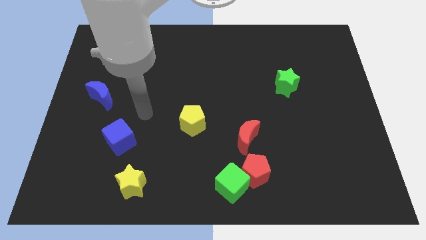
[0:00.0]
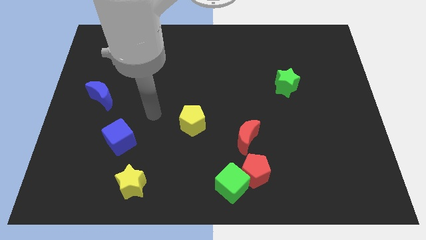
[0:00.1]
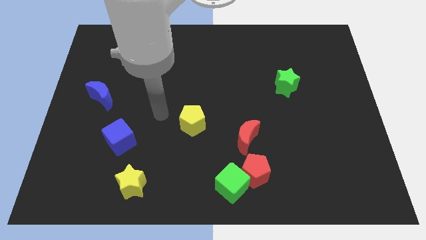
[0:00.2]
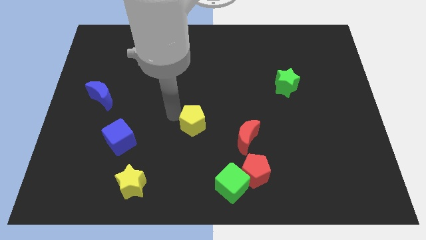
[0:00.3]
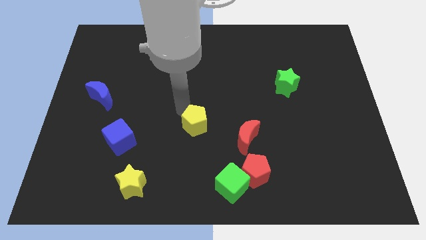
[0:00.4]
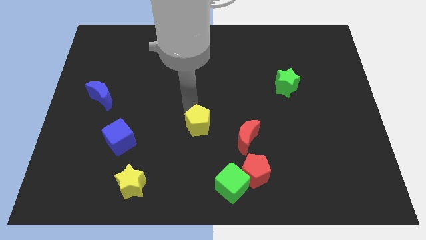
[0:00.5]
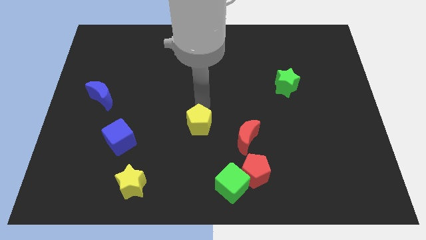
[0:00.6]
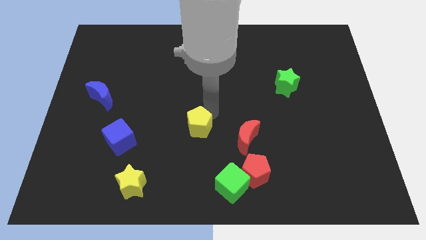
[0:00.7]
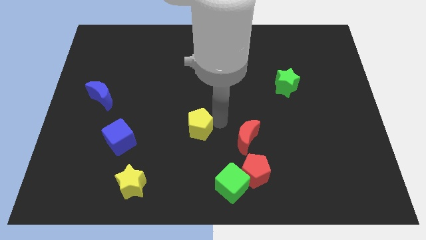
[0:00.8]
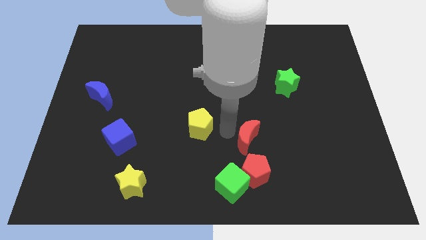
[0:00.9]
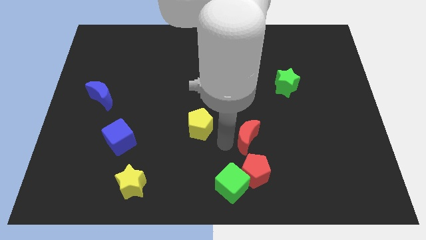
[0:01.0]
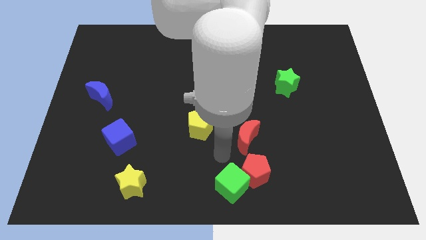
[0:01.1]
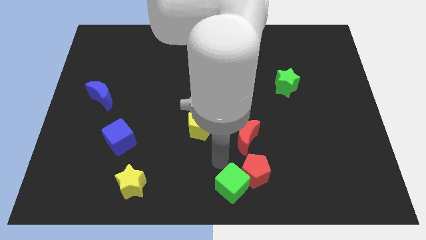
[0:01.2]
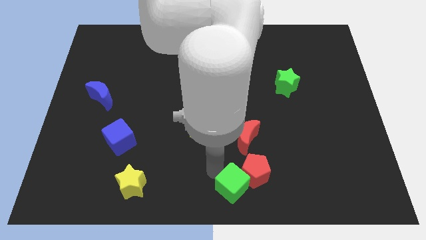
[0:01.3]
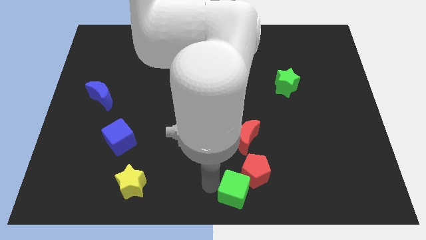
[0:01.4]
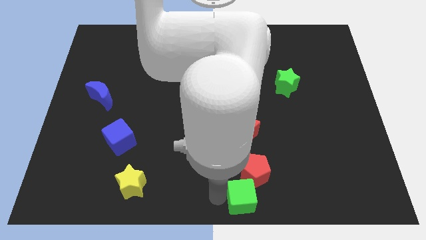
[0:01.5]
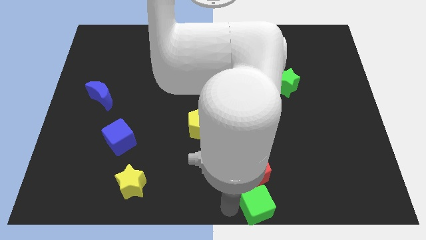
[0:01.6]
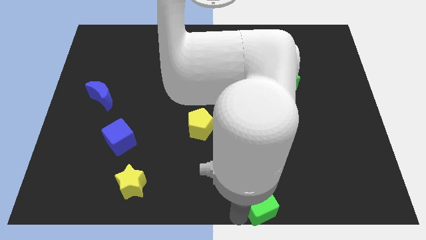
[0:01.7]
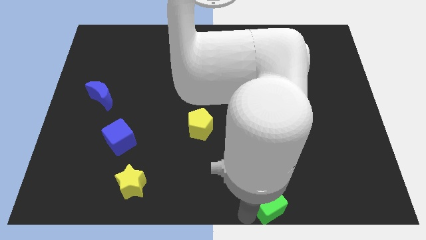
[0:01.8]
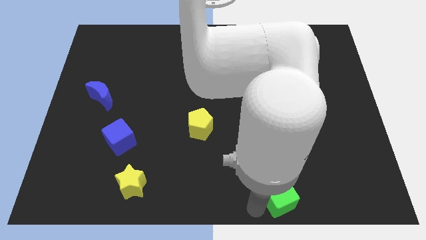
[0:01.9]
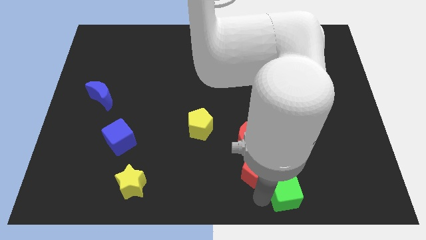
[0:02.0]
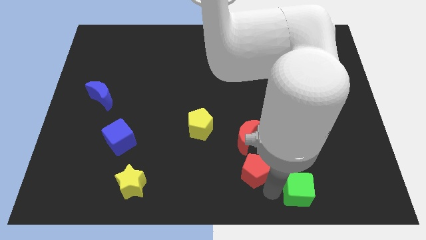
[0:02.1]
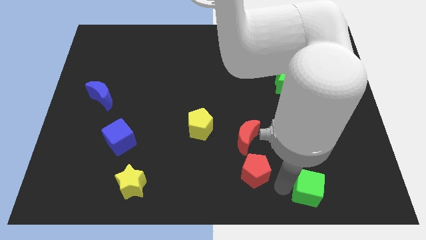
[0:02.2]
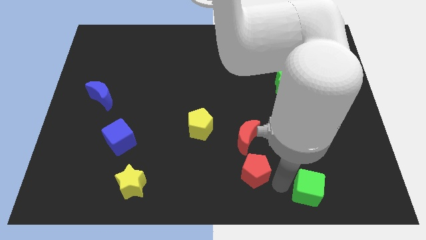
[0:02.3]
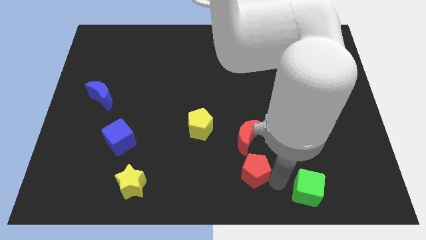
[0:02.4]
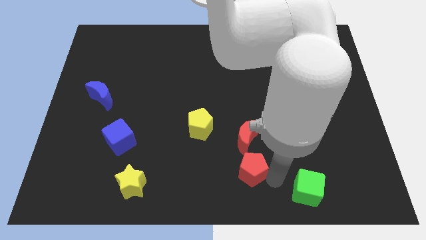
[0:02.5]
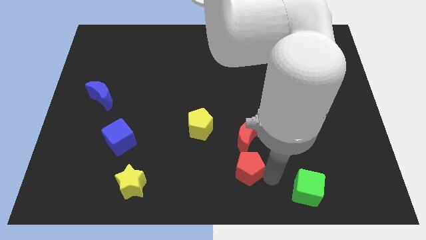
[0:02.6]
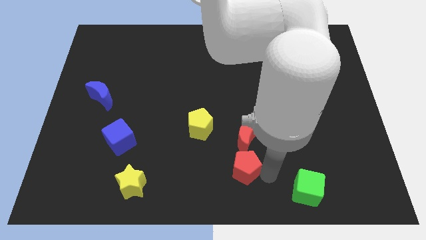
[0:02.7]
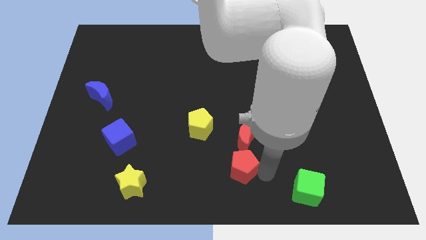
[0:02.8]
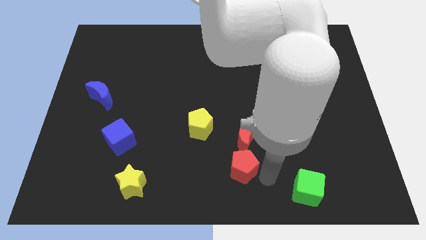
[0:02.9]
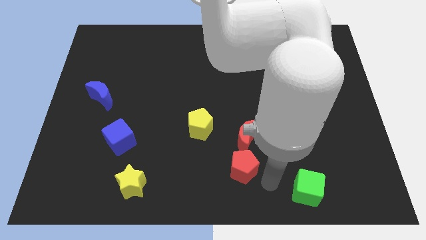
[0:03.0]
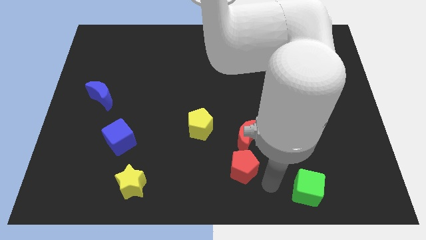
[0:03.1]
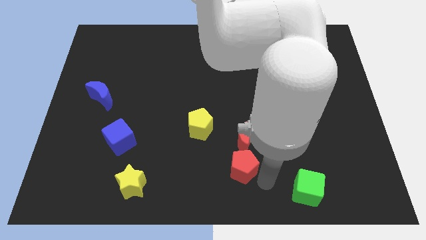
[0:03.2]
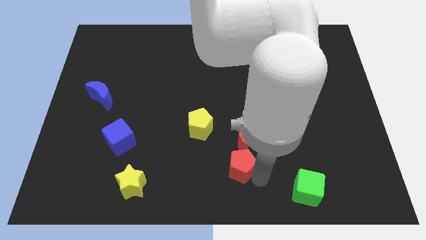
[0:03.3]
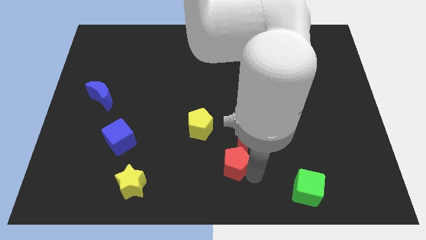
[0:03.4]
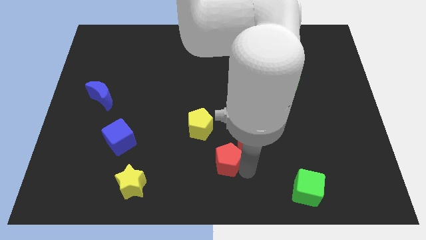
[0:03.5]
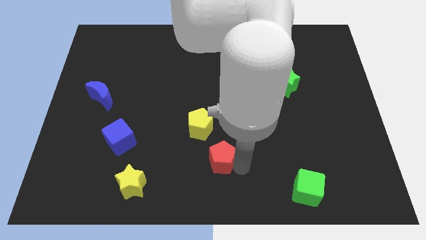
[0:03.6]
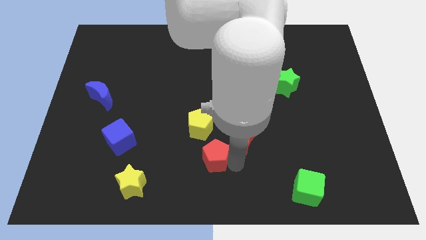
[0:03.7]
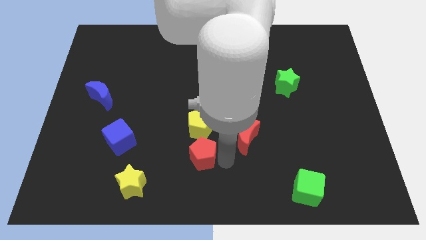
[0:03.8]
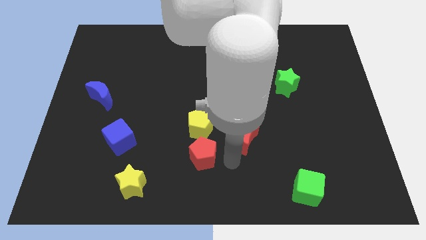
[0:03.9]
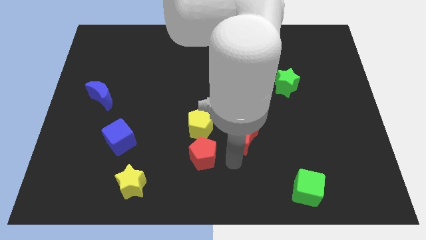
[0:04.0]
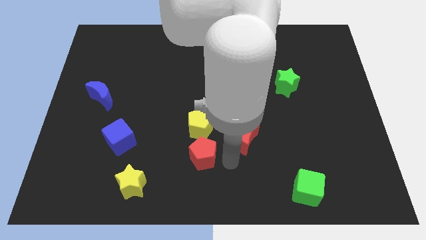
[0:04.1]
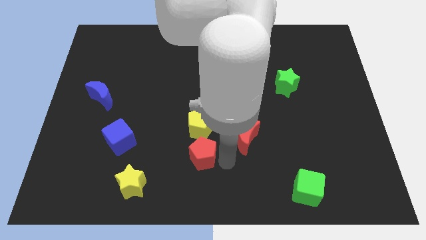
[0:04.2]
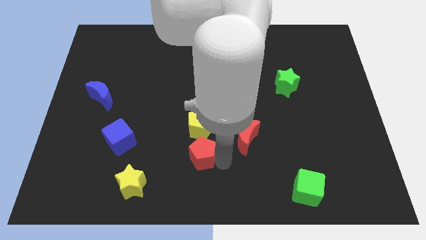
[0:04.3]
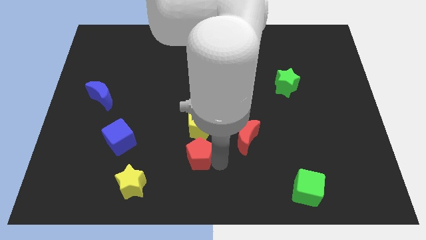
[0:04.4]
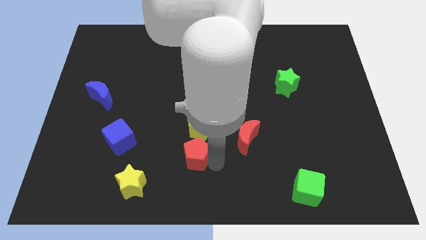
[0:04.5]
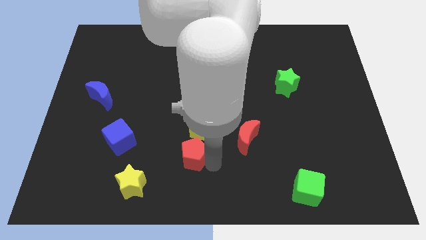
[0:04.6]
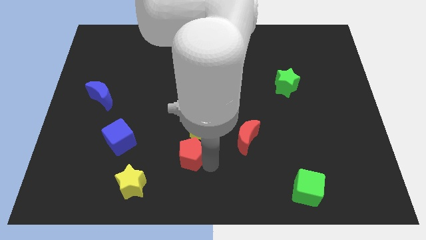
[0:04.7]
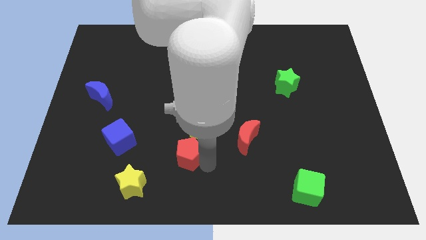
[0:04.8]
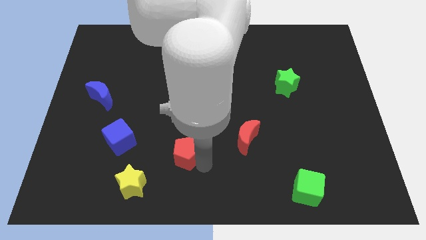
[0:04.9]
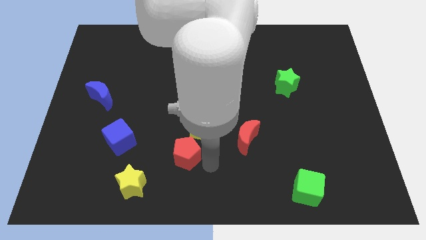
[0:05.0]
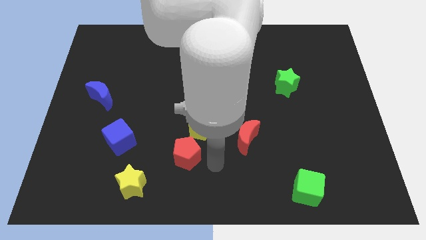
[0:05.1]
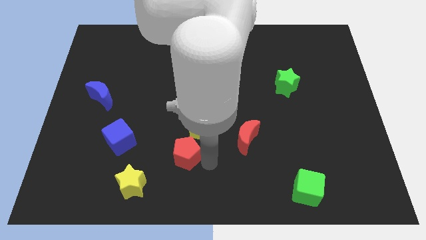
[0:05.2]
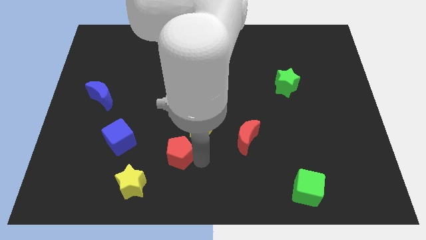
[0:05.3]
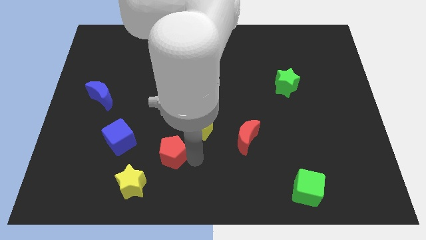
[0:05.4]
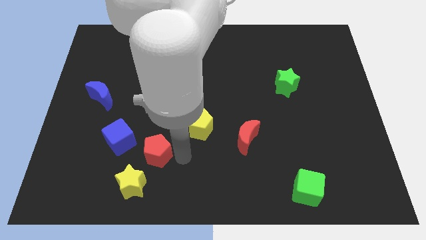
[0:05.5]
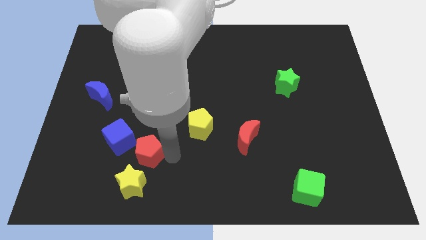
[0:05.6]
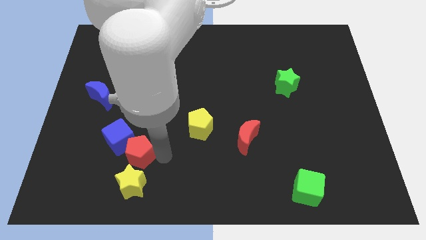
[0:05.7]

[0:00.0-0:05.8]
move the red pentagon next to the blue cube

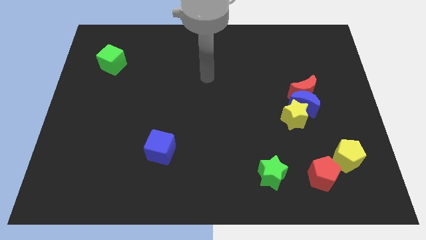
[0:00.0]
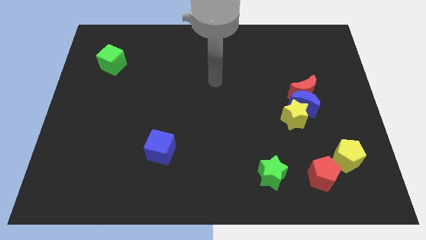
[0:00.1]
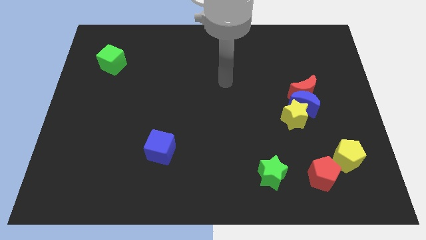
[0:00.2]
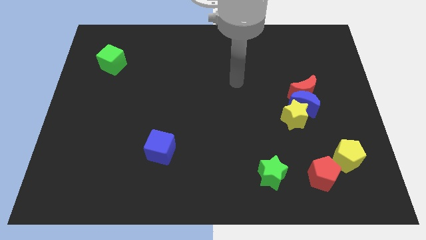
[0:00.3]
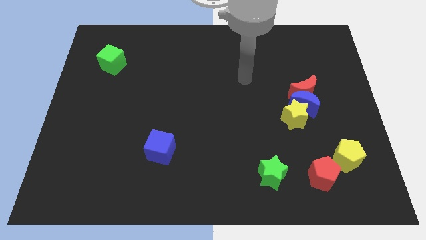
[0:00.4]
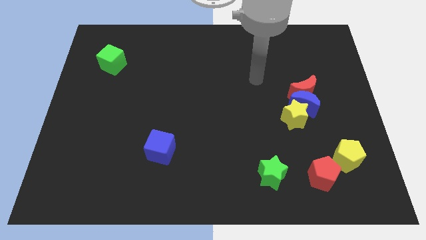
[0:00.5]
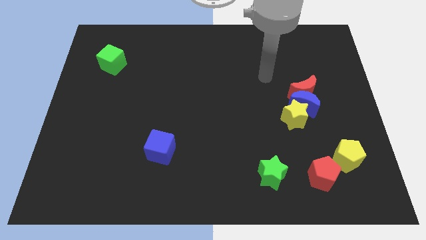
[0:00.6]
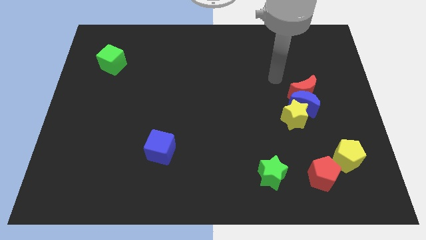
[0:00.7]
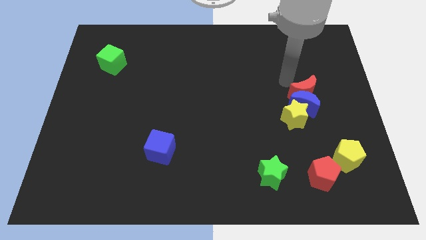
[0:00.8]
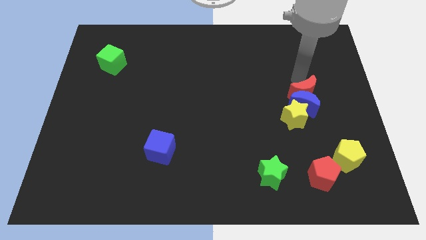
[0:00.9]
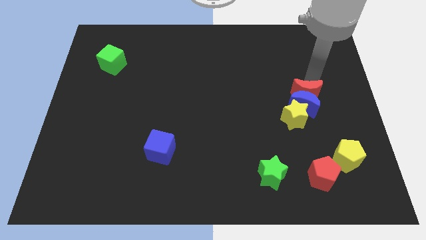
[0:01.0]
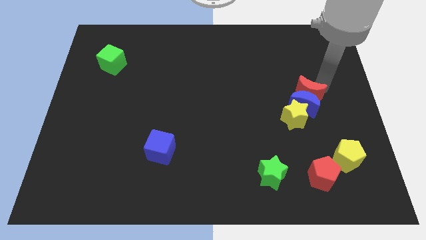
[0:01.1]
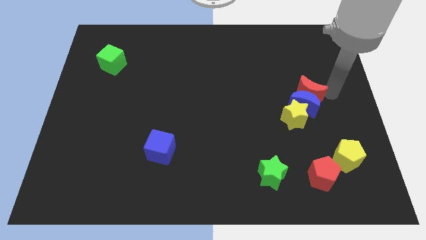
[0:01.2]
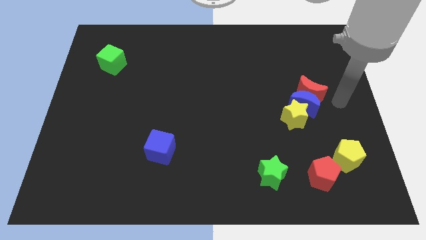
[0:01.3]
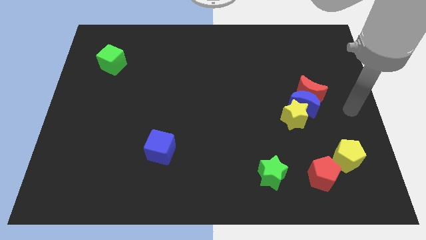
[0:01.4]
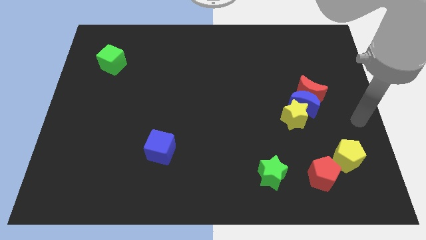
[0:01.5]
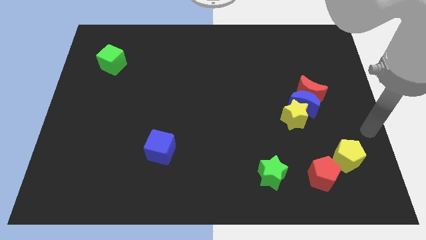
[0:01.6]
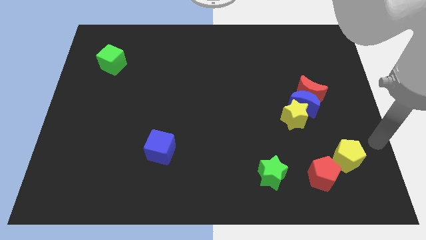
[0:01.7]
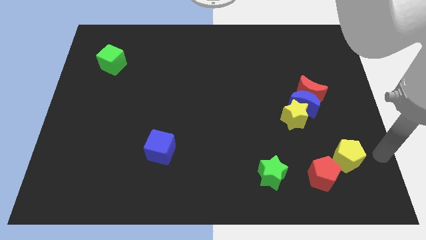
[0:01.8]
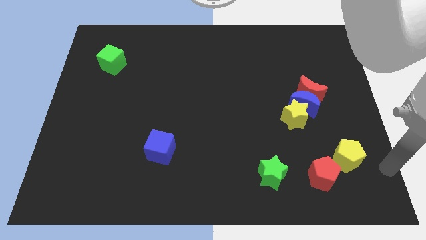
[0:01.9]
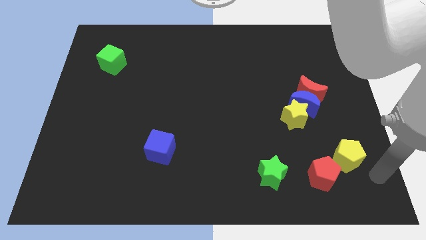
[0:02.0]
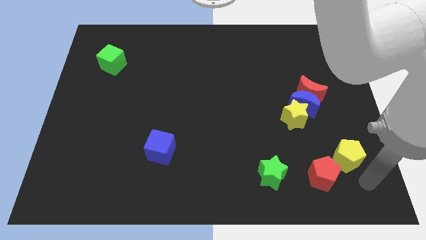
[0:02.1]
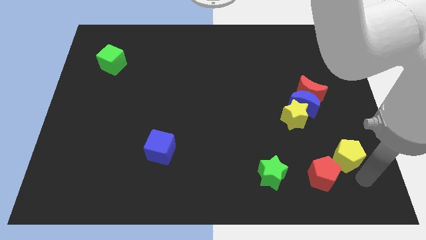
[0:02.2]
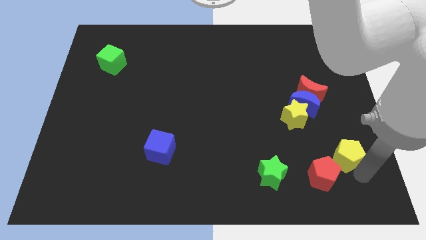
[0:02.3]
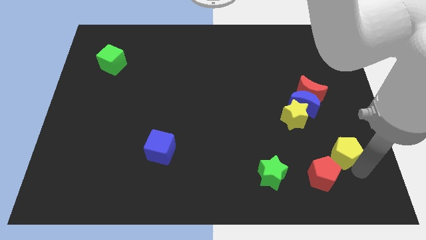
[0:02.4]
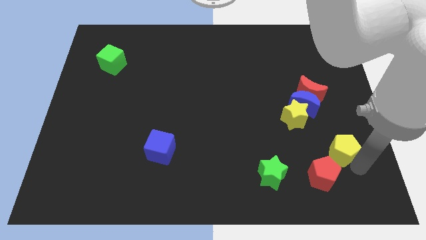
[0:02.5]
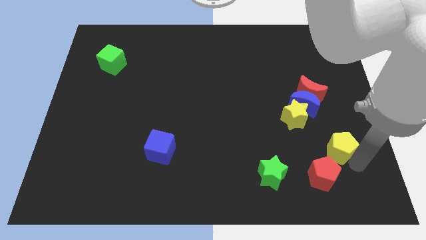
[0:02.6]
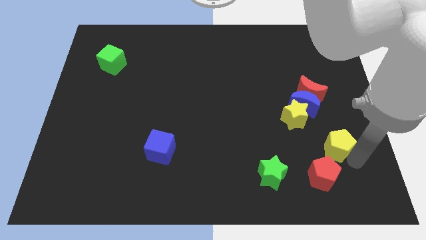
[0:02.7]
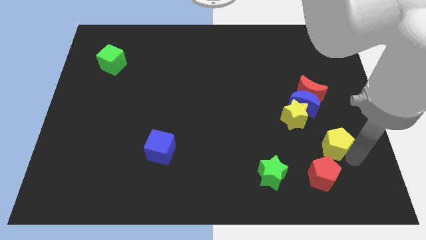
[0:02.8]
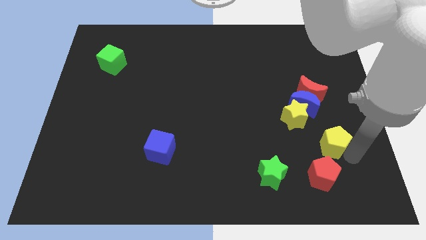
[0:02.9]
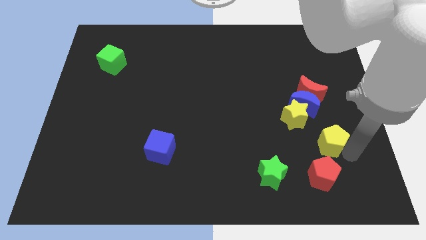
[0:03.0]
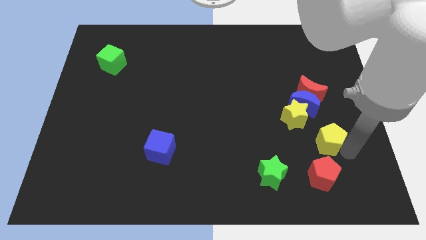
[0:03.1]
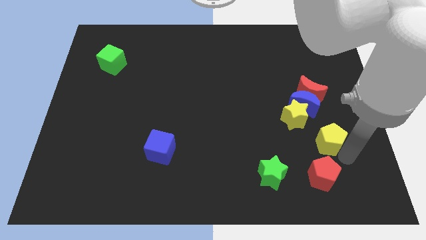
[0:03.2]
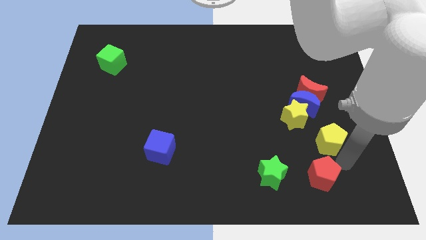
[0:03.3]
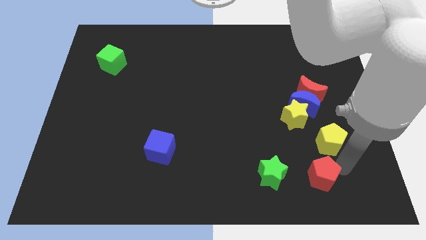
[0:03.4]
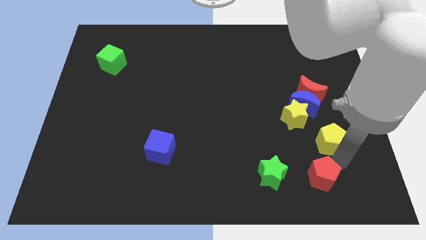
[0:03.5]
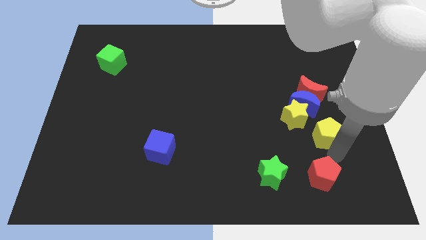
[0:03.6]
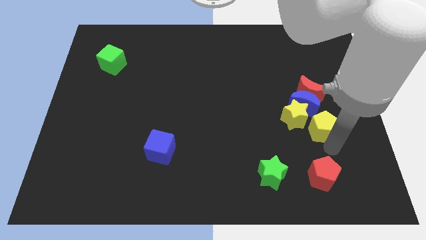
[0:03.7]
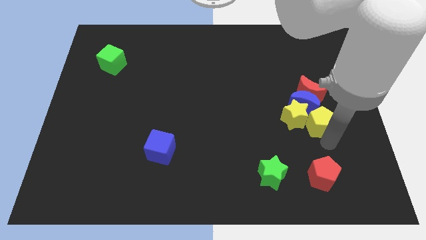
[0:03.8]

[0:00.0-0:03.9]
slide the yellow pentagon to the blue moon
